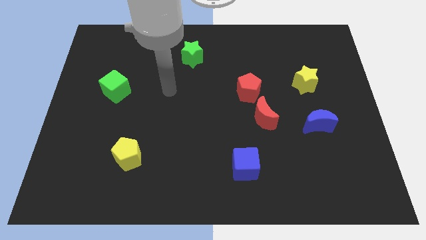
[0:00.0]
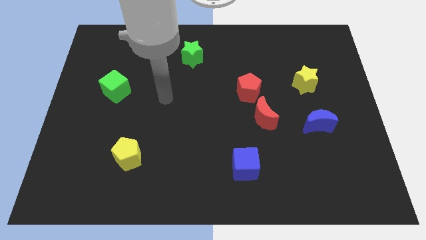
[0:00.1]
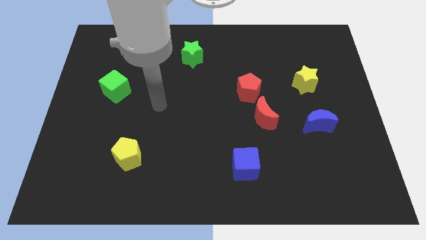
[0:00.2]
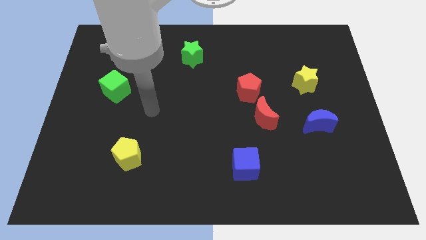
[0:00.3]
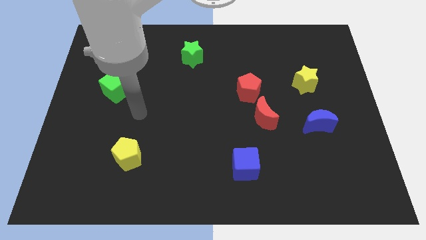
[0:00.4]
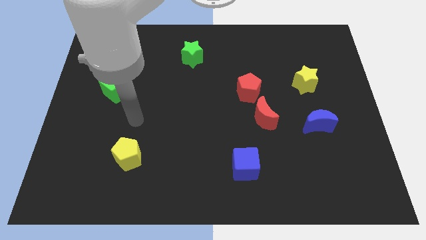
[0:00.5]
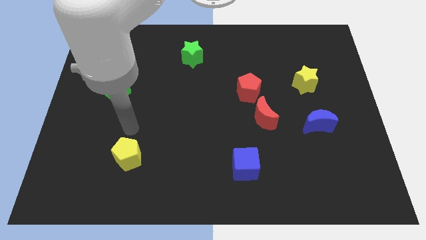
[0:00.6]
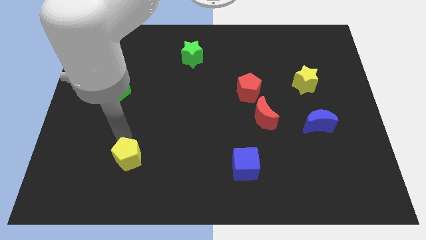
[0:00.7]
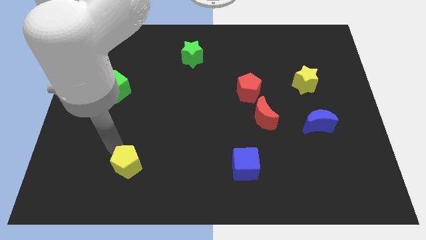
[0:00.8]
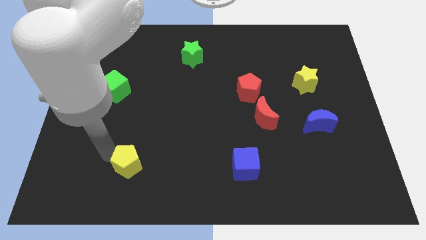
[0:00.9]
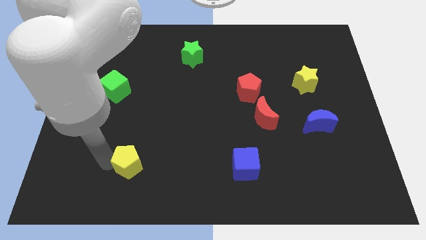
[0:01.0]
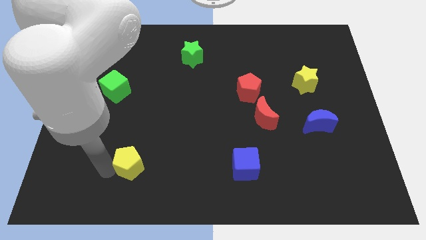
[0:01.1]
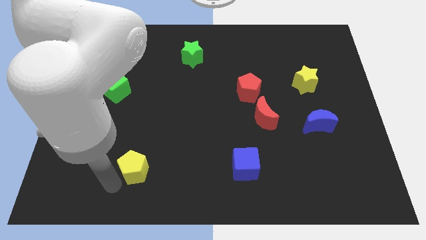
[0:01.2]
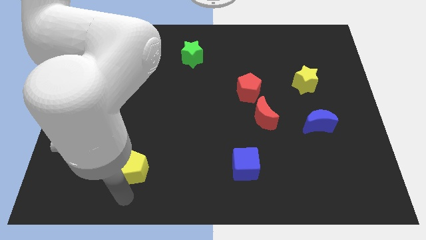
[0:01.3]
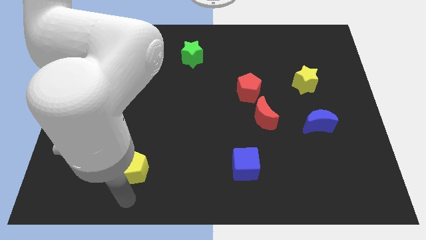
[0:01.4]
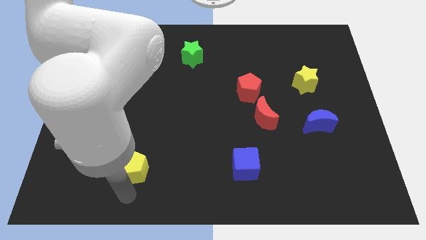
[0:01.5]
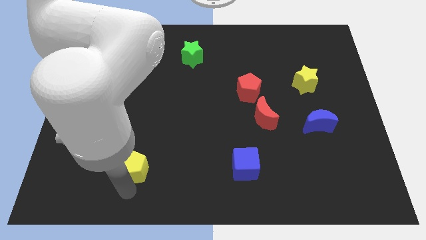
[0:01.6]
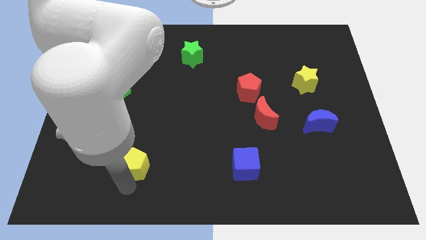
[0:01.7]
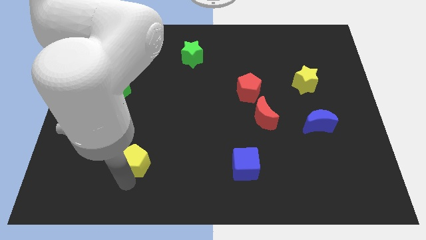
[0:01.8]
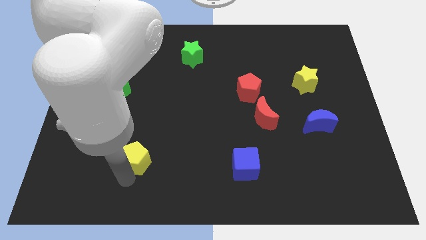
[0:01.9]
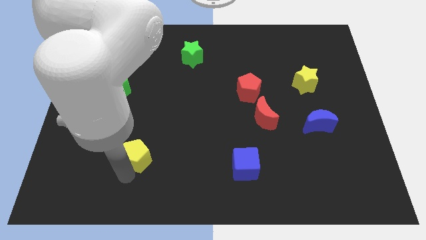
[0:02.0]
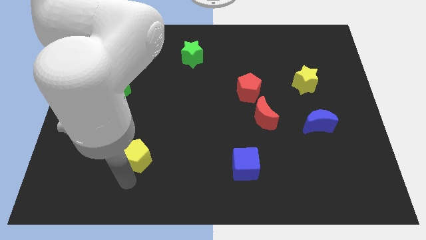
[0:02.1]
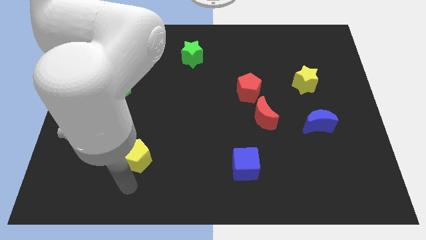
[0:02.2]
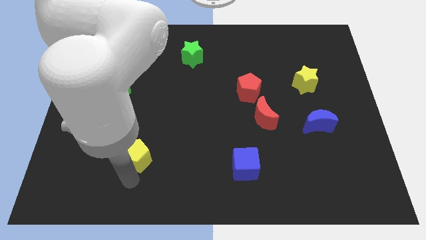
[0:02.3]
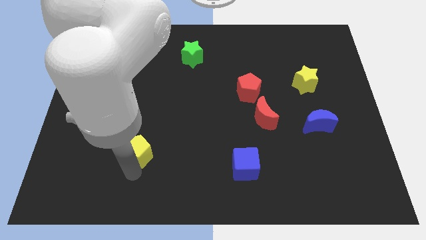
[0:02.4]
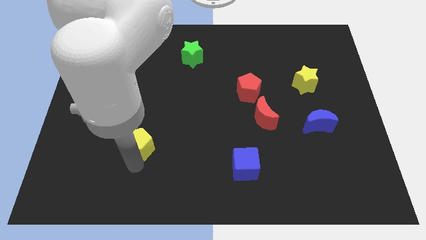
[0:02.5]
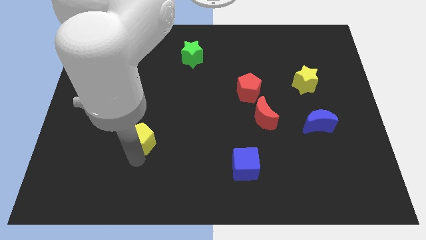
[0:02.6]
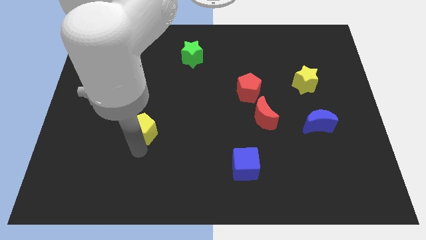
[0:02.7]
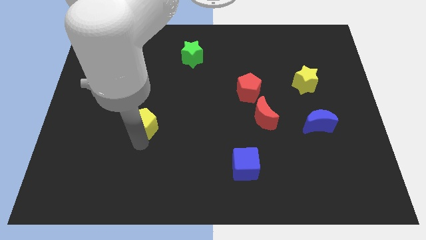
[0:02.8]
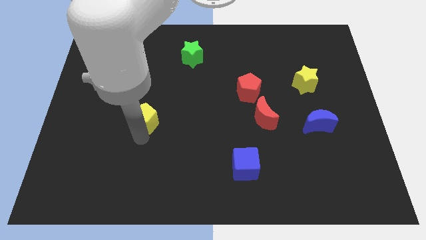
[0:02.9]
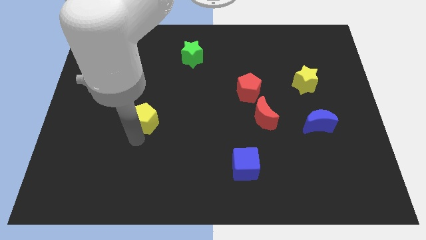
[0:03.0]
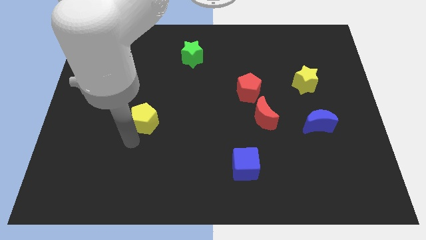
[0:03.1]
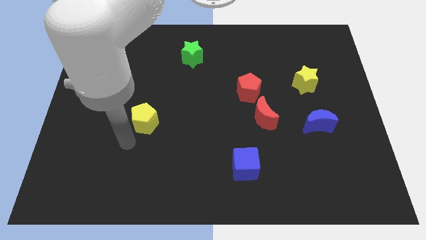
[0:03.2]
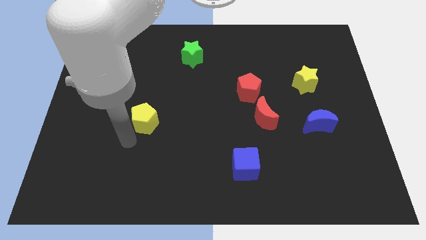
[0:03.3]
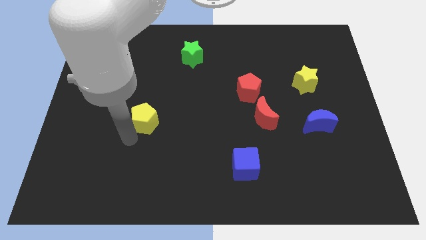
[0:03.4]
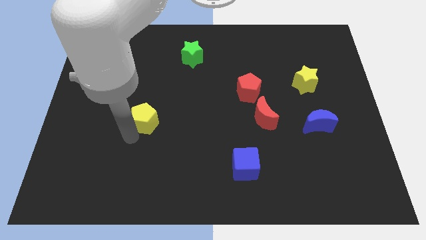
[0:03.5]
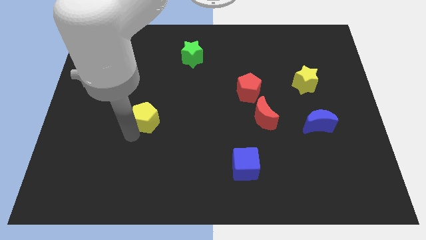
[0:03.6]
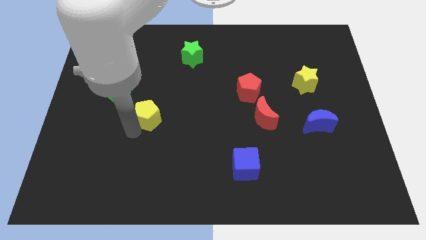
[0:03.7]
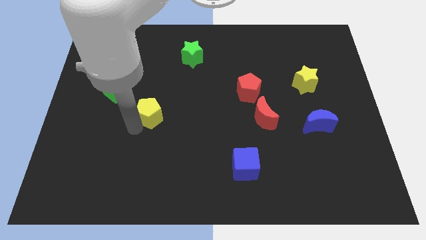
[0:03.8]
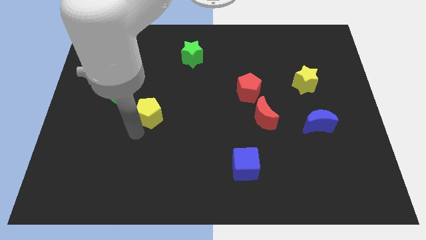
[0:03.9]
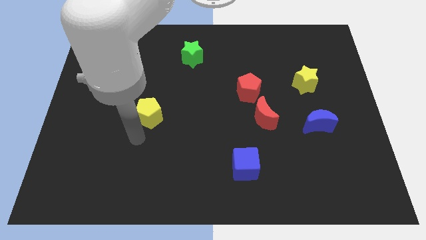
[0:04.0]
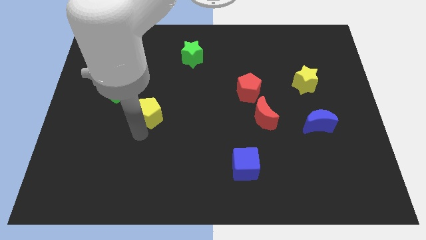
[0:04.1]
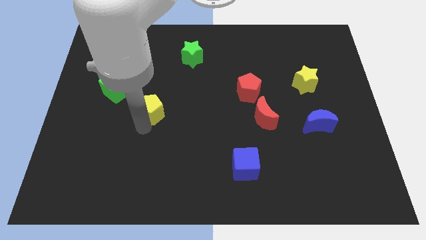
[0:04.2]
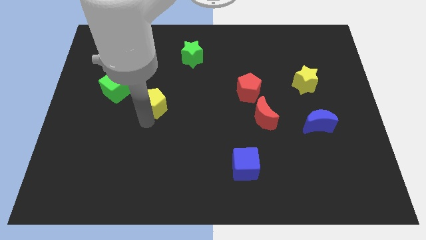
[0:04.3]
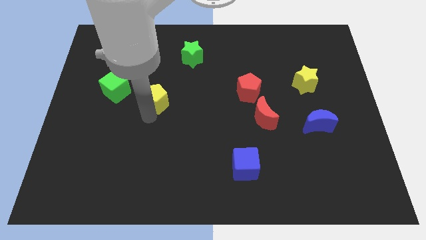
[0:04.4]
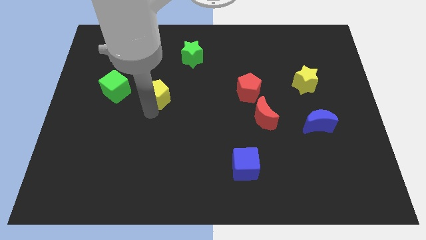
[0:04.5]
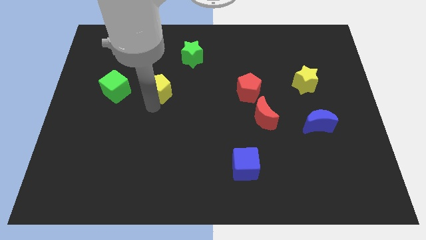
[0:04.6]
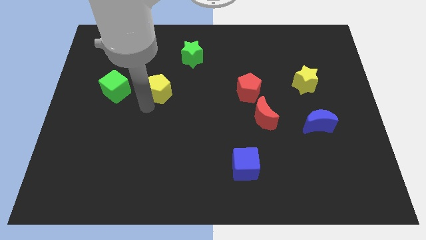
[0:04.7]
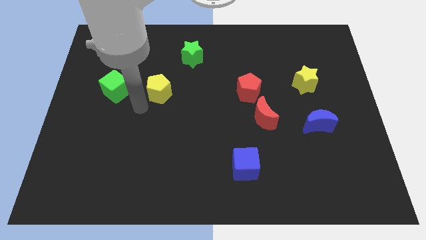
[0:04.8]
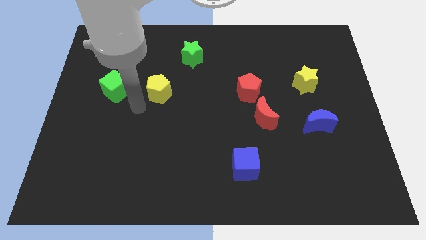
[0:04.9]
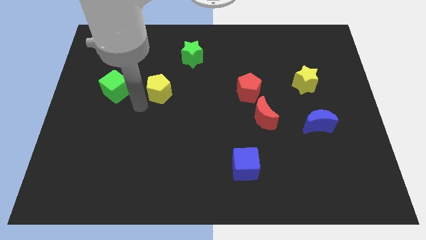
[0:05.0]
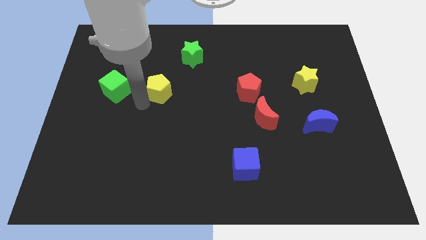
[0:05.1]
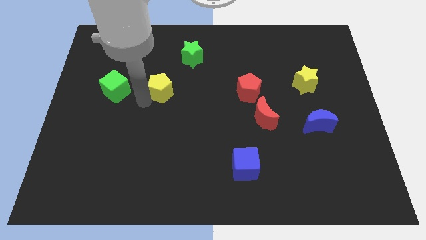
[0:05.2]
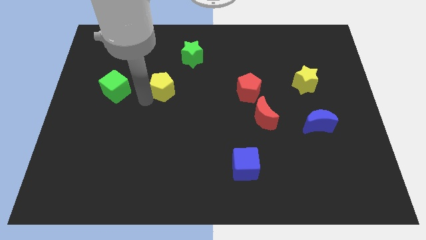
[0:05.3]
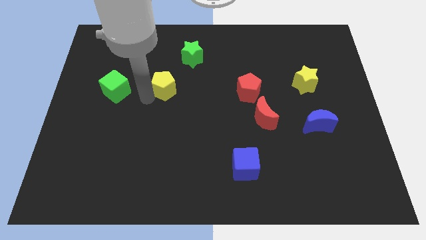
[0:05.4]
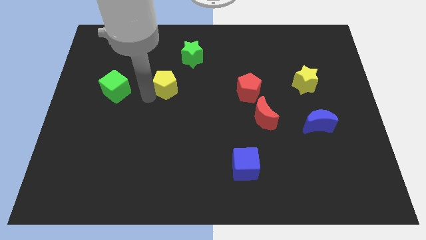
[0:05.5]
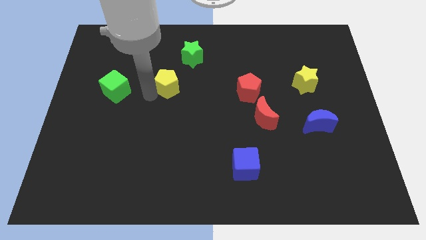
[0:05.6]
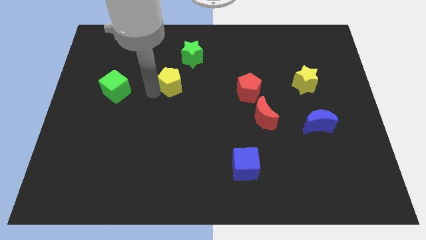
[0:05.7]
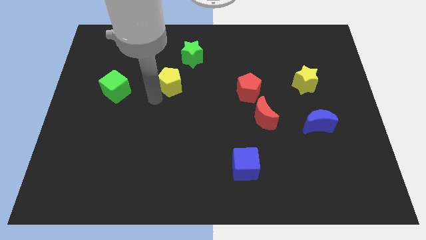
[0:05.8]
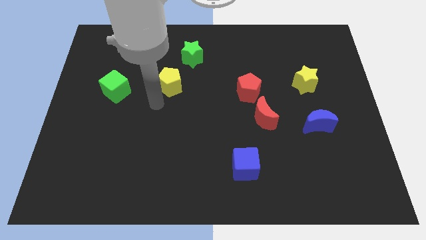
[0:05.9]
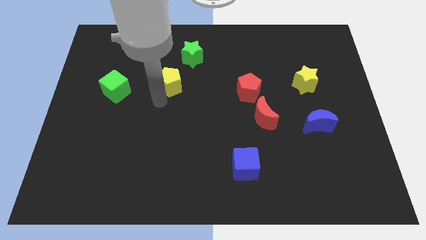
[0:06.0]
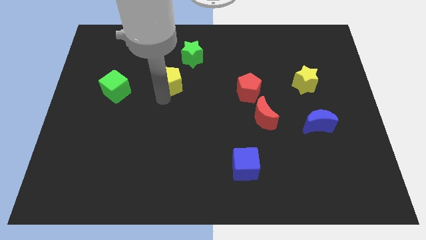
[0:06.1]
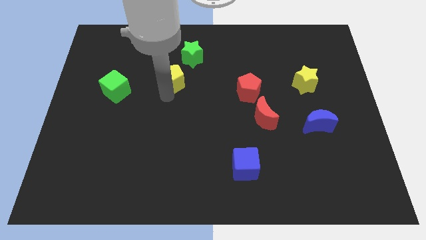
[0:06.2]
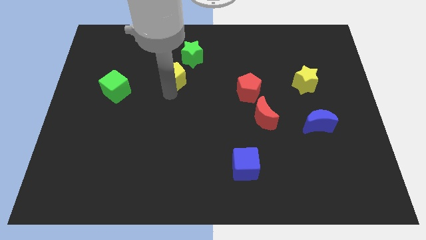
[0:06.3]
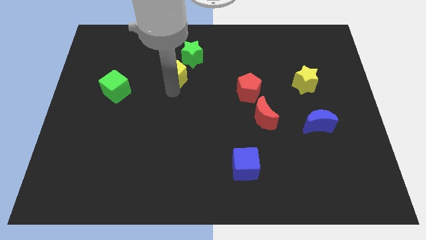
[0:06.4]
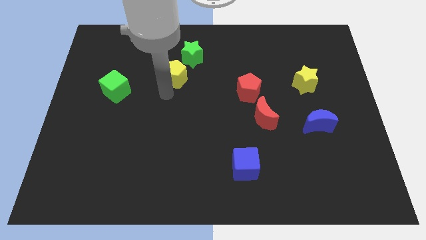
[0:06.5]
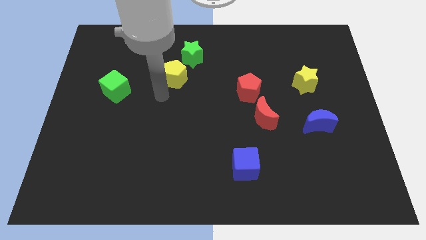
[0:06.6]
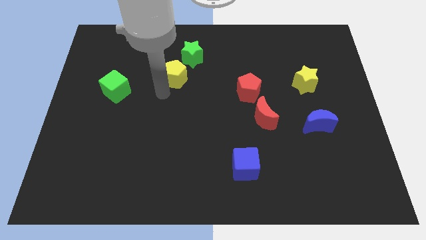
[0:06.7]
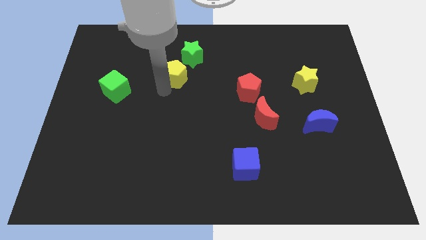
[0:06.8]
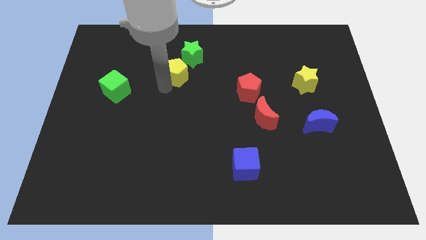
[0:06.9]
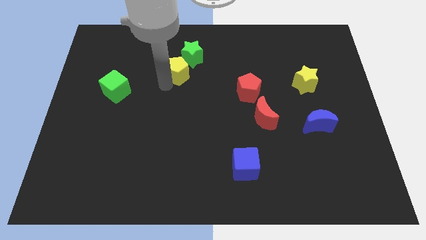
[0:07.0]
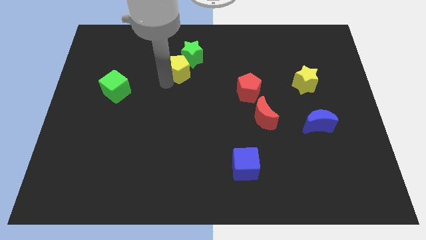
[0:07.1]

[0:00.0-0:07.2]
push the yellow pentagon to the green star

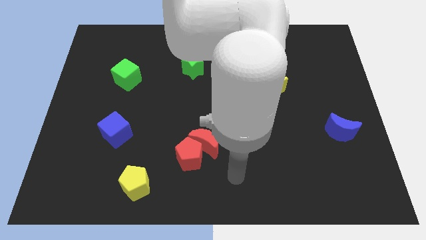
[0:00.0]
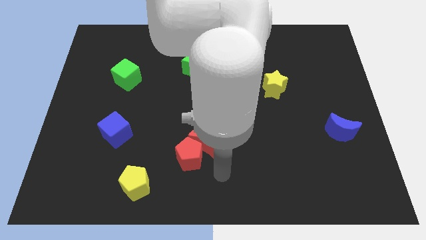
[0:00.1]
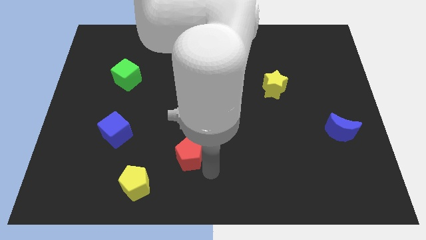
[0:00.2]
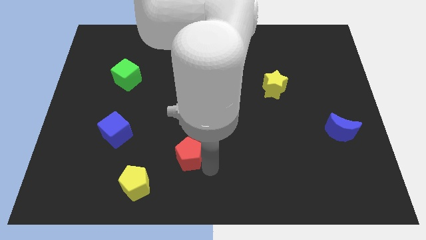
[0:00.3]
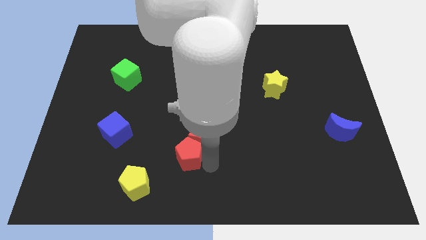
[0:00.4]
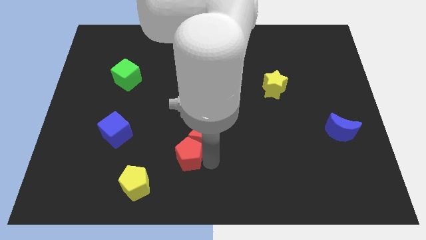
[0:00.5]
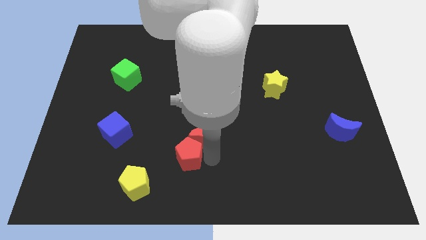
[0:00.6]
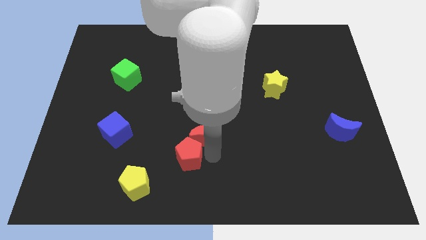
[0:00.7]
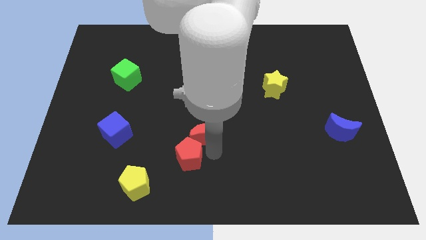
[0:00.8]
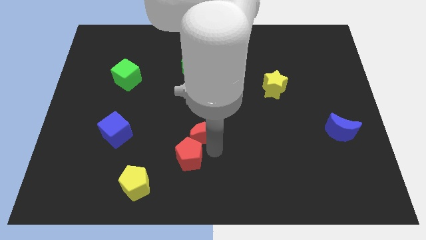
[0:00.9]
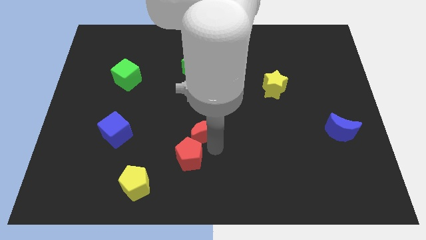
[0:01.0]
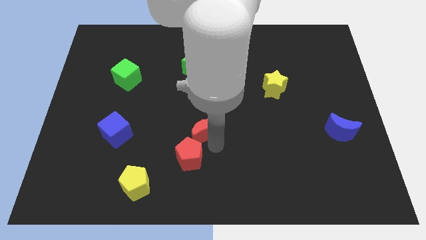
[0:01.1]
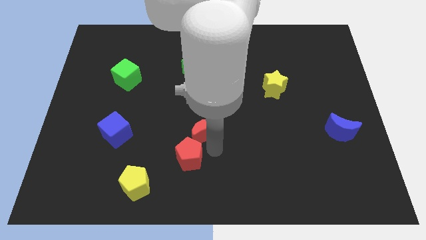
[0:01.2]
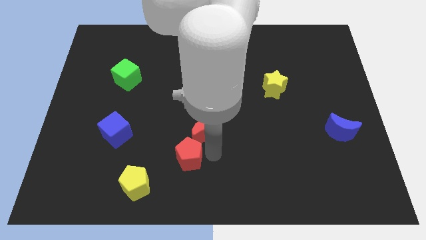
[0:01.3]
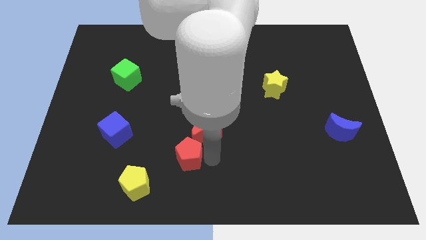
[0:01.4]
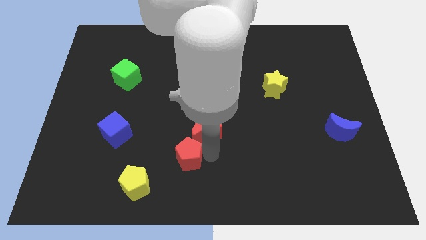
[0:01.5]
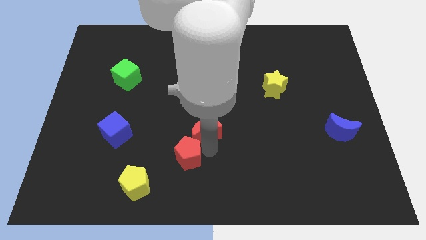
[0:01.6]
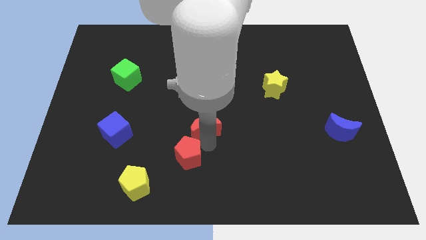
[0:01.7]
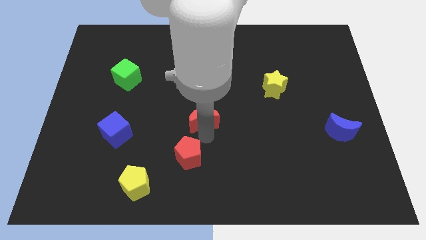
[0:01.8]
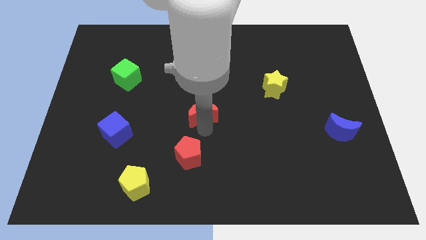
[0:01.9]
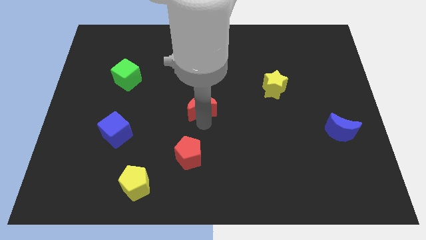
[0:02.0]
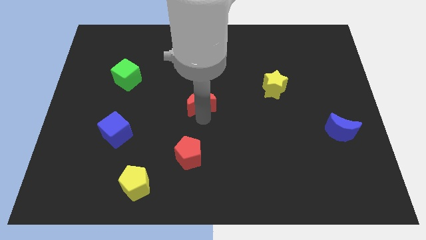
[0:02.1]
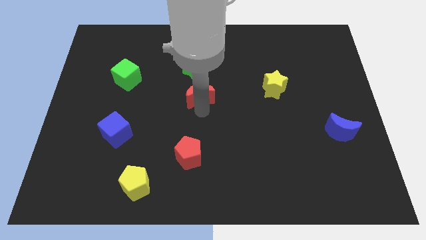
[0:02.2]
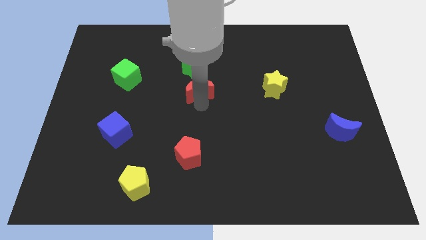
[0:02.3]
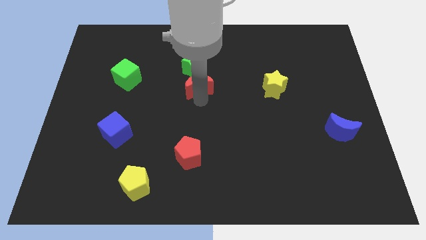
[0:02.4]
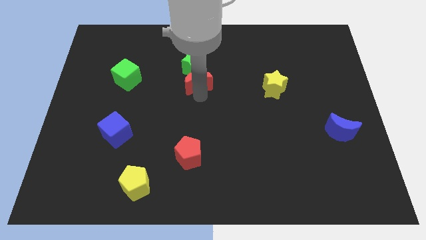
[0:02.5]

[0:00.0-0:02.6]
push the red moon next to the green star
